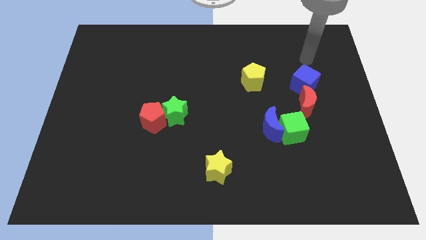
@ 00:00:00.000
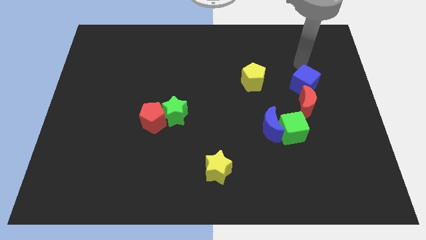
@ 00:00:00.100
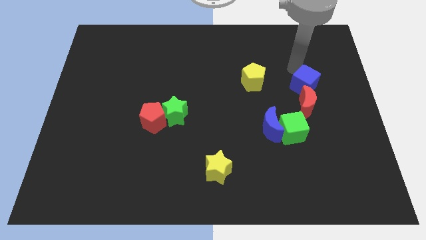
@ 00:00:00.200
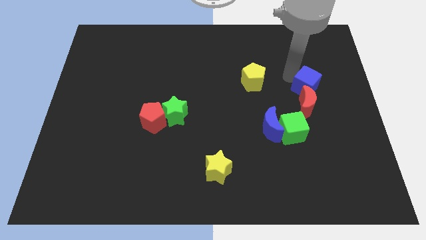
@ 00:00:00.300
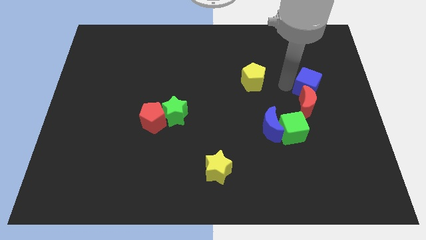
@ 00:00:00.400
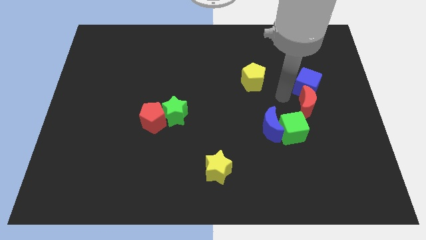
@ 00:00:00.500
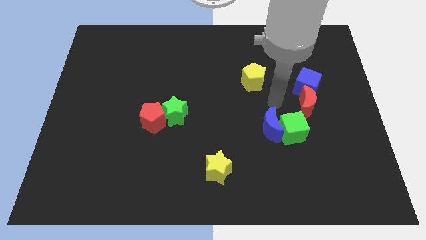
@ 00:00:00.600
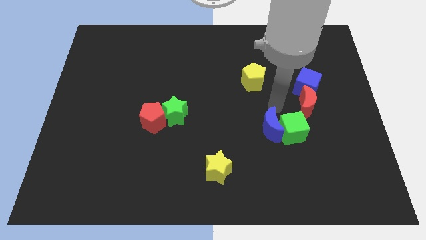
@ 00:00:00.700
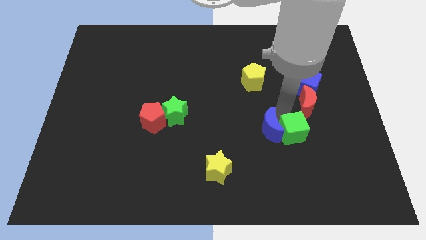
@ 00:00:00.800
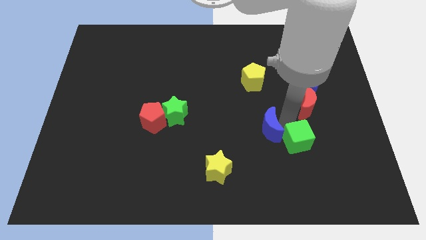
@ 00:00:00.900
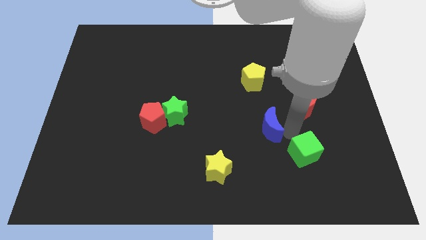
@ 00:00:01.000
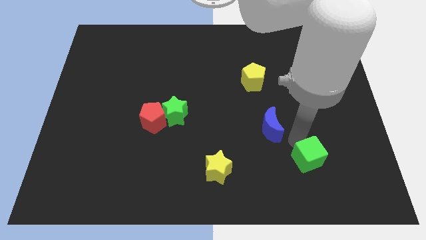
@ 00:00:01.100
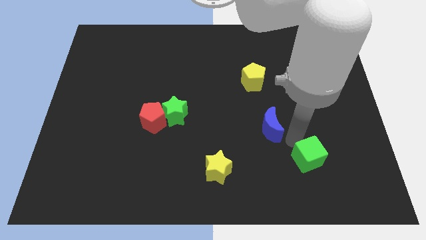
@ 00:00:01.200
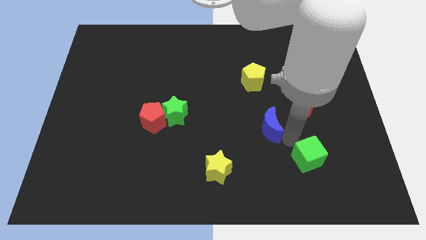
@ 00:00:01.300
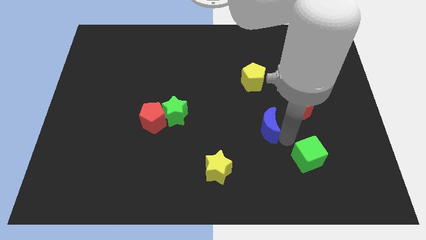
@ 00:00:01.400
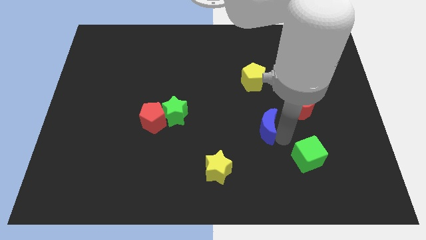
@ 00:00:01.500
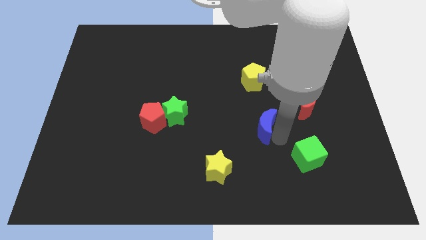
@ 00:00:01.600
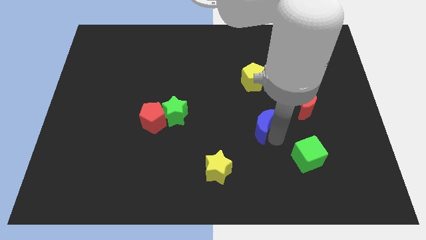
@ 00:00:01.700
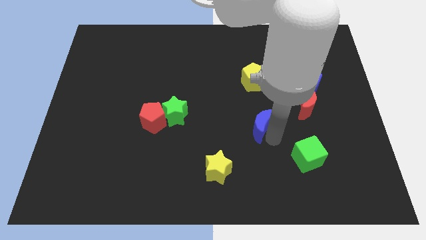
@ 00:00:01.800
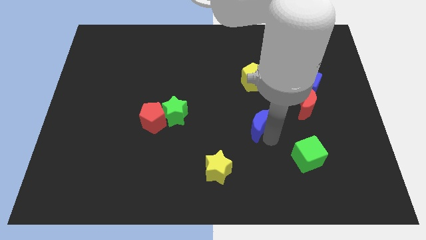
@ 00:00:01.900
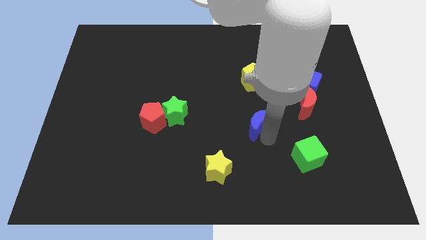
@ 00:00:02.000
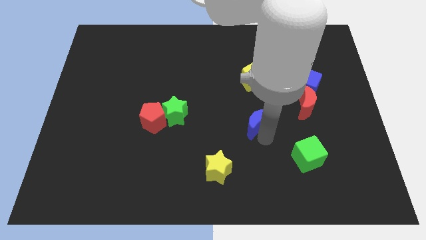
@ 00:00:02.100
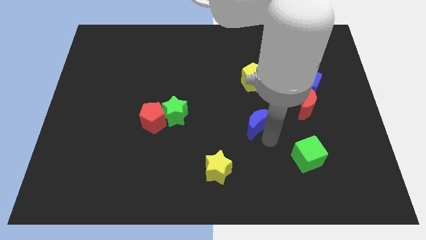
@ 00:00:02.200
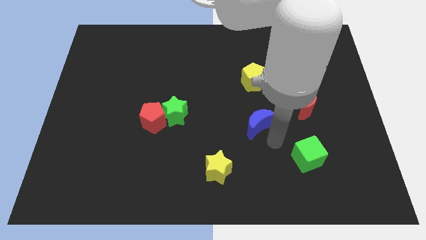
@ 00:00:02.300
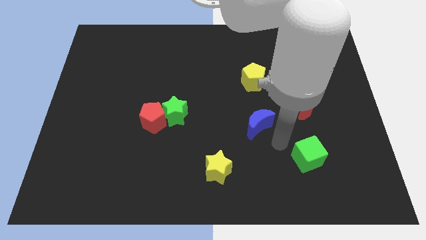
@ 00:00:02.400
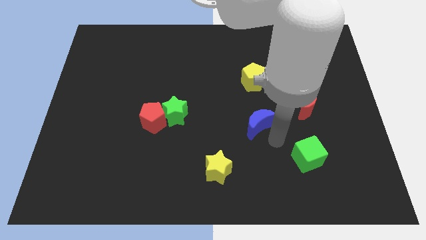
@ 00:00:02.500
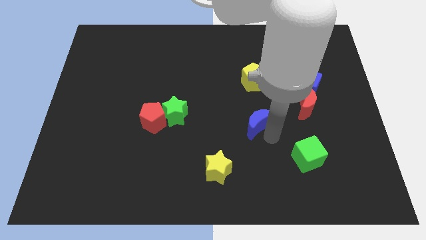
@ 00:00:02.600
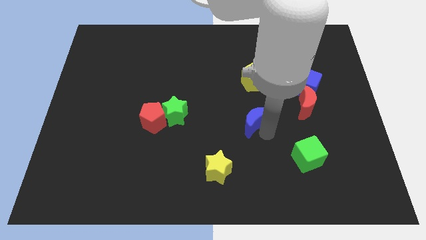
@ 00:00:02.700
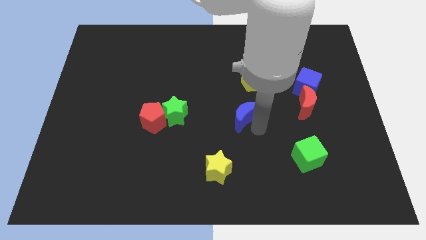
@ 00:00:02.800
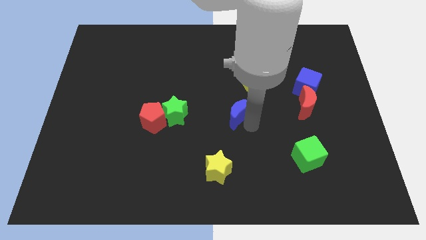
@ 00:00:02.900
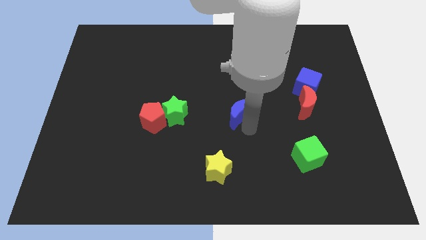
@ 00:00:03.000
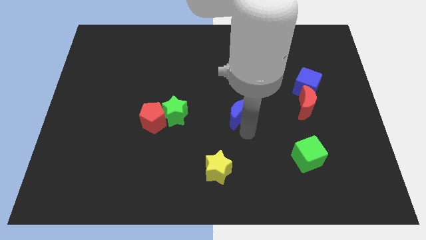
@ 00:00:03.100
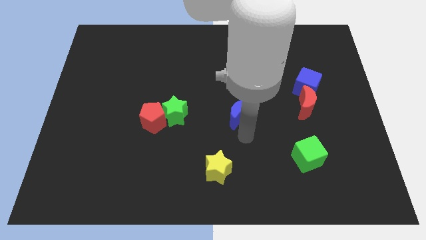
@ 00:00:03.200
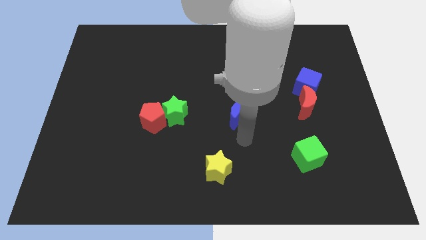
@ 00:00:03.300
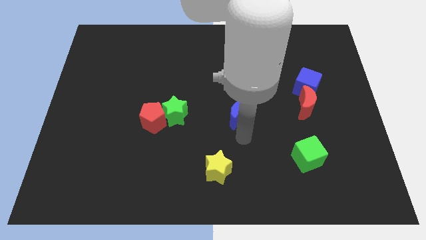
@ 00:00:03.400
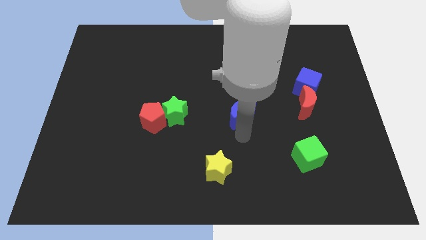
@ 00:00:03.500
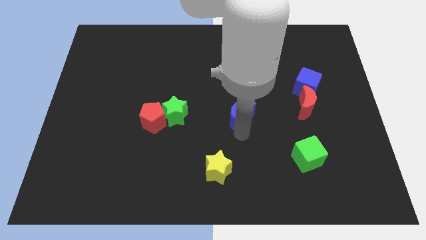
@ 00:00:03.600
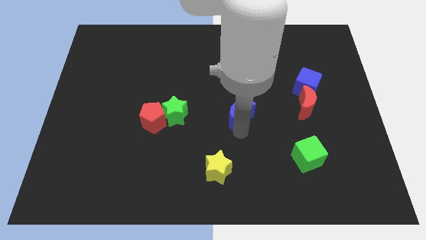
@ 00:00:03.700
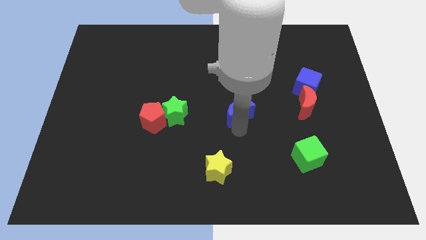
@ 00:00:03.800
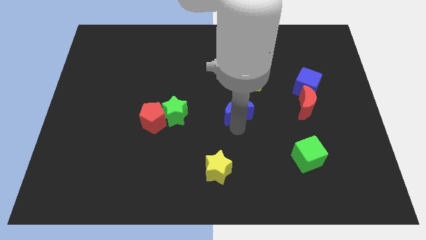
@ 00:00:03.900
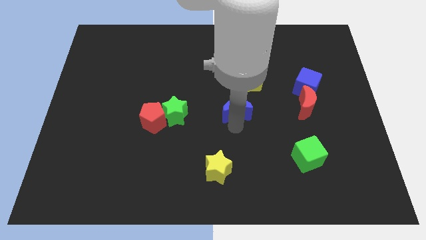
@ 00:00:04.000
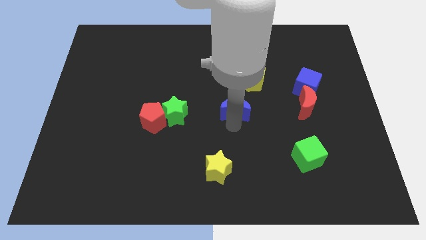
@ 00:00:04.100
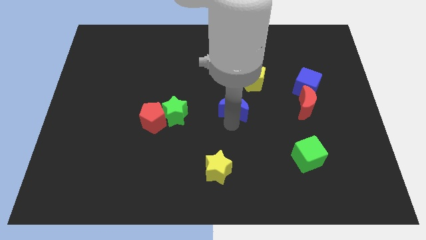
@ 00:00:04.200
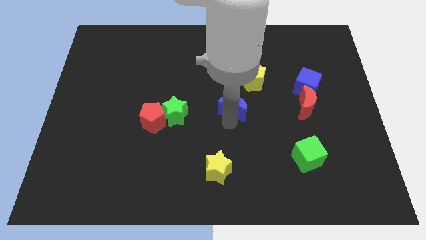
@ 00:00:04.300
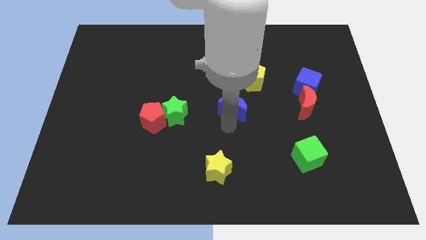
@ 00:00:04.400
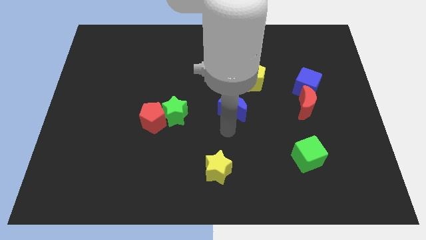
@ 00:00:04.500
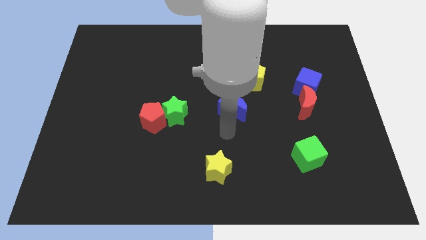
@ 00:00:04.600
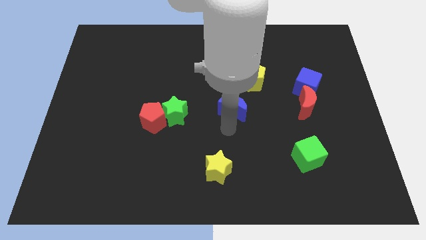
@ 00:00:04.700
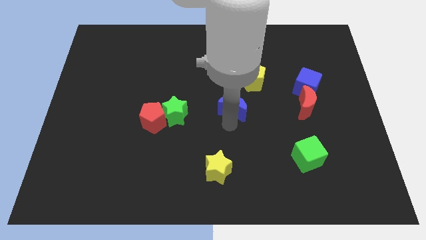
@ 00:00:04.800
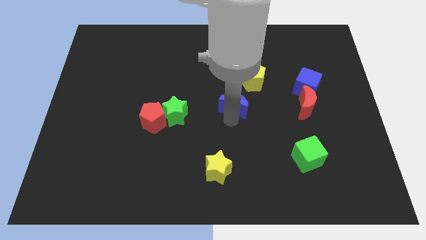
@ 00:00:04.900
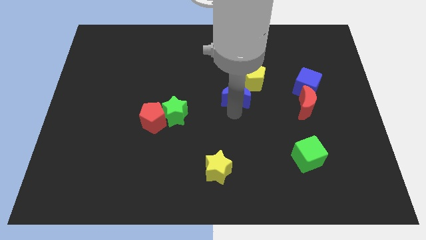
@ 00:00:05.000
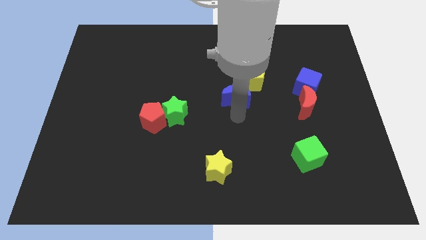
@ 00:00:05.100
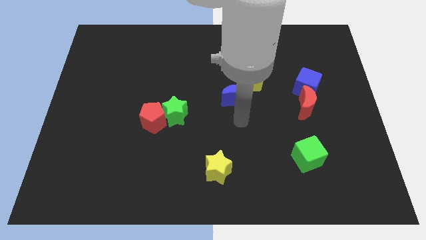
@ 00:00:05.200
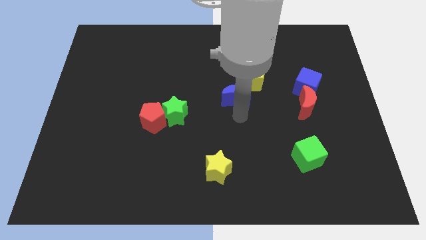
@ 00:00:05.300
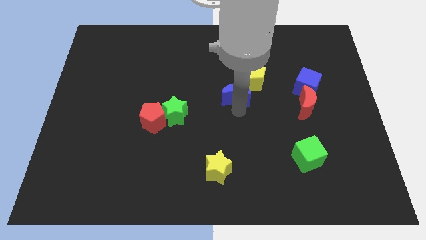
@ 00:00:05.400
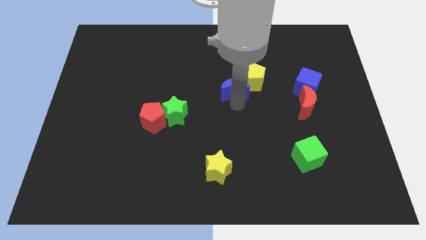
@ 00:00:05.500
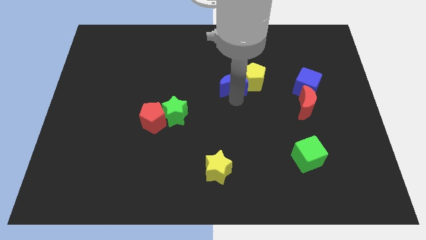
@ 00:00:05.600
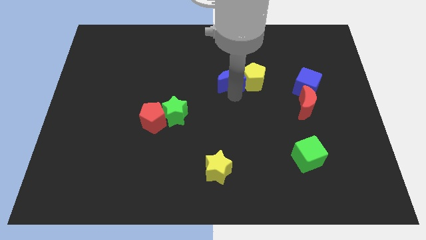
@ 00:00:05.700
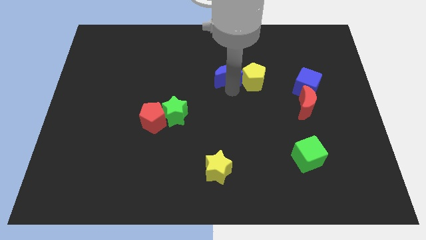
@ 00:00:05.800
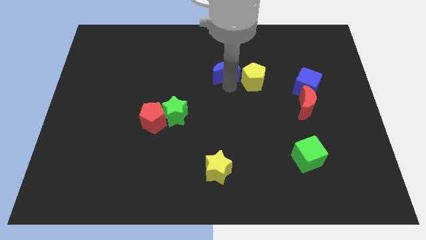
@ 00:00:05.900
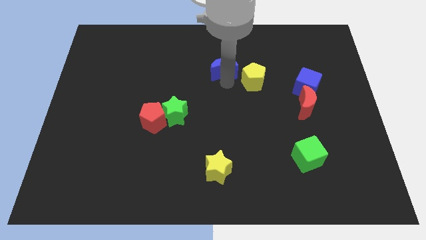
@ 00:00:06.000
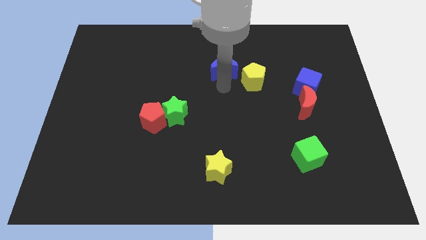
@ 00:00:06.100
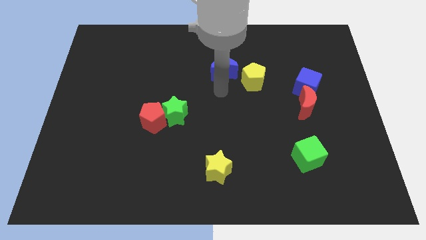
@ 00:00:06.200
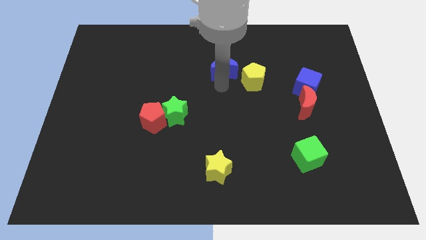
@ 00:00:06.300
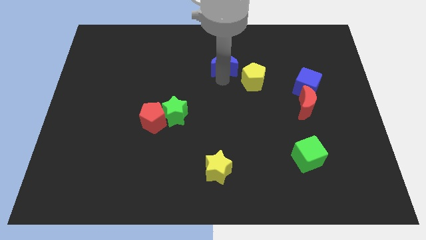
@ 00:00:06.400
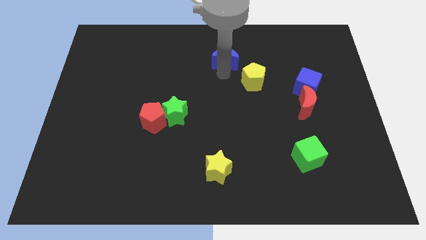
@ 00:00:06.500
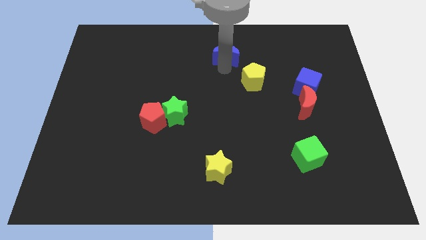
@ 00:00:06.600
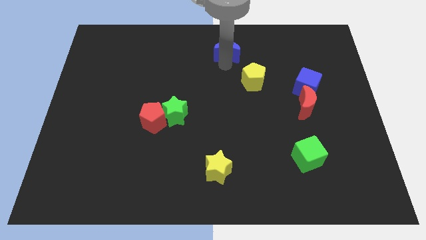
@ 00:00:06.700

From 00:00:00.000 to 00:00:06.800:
move the blue moon to the towards your base
